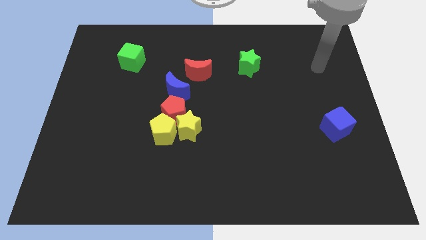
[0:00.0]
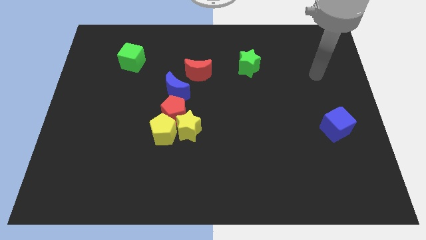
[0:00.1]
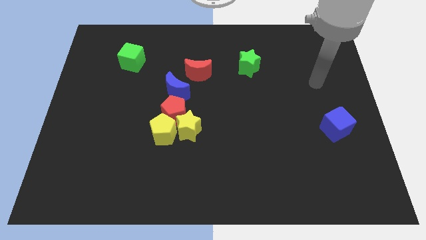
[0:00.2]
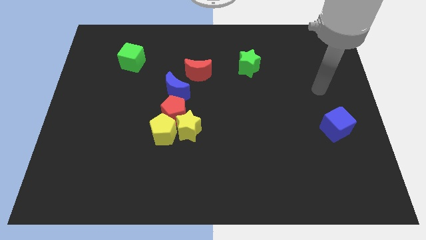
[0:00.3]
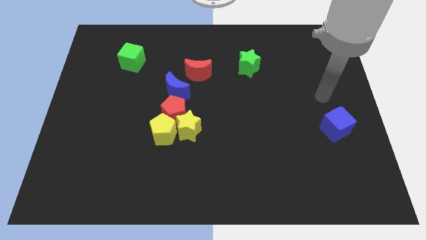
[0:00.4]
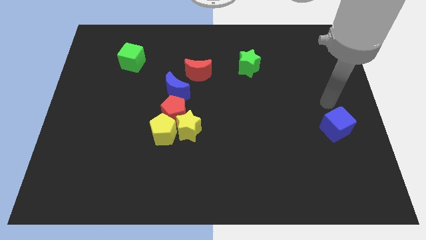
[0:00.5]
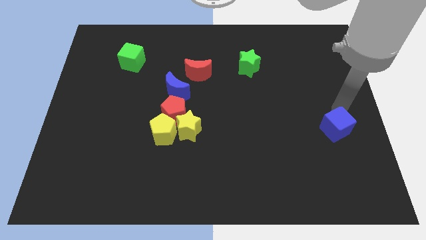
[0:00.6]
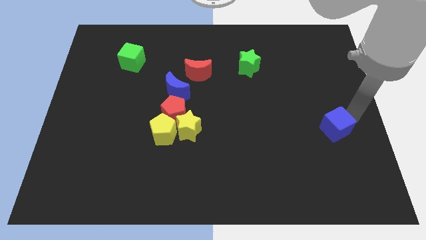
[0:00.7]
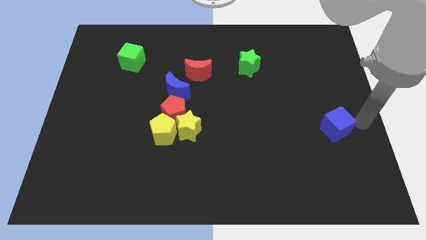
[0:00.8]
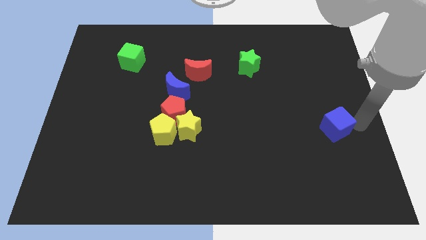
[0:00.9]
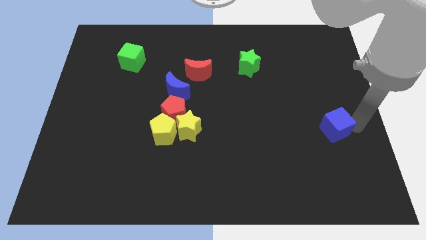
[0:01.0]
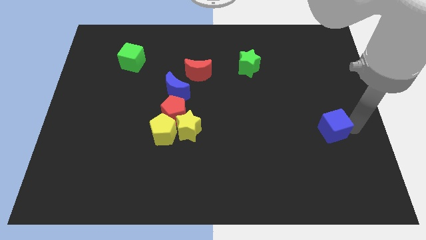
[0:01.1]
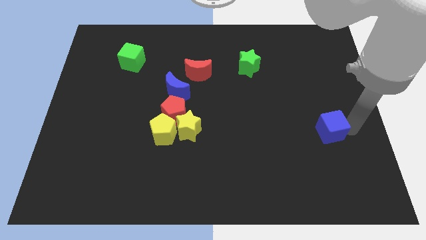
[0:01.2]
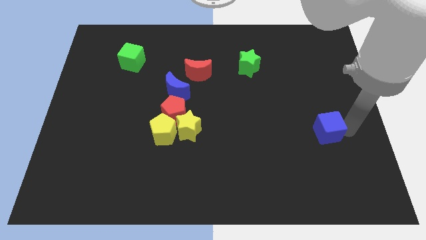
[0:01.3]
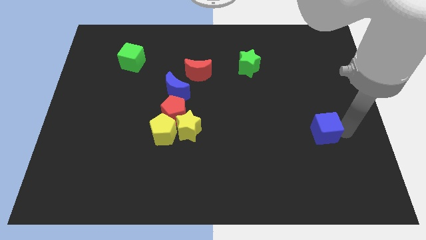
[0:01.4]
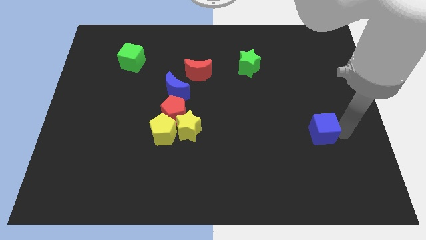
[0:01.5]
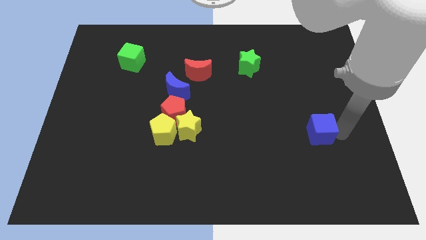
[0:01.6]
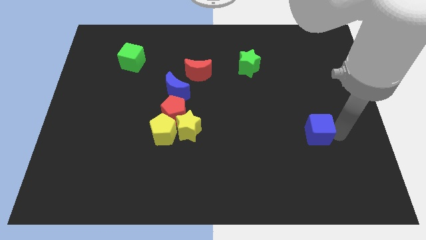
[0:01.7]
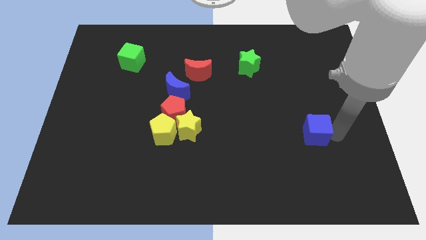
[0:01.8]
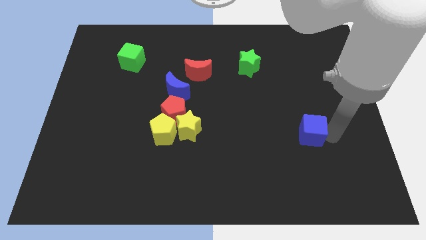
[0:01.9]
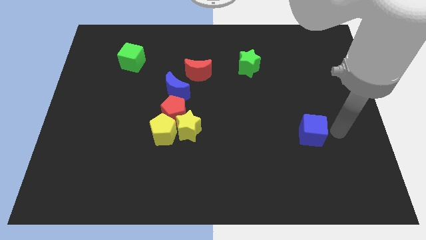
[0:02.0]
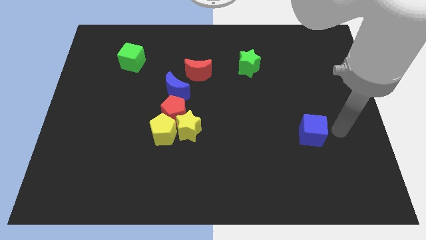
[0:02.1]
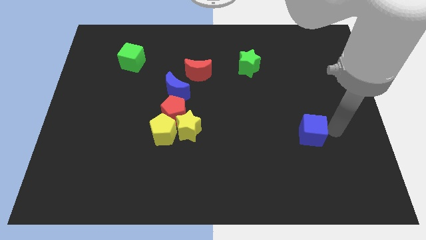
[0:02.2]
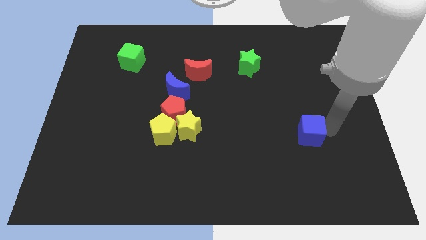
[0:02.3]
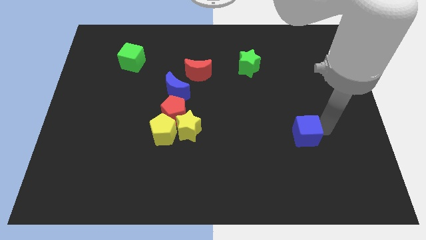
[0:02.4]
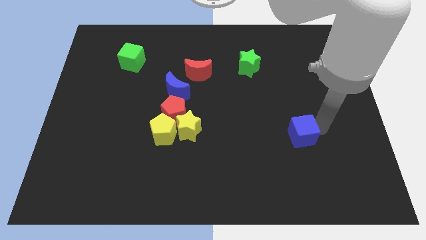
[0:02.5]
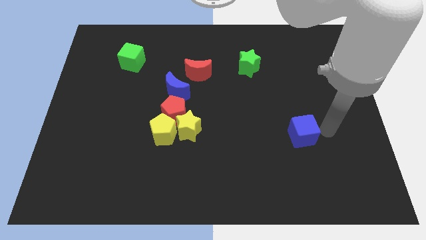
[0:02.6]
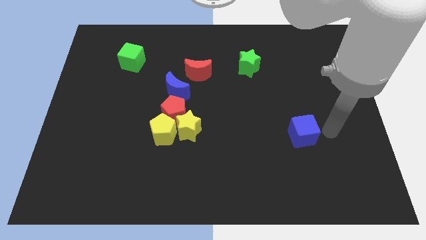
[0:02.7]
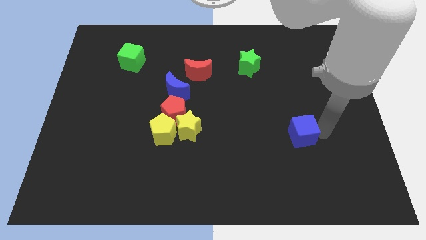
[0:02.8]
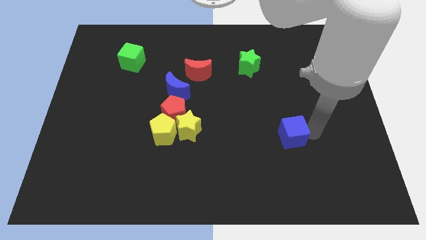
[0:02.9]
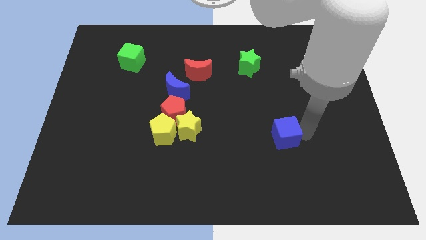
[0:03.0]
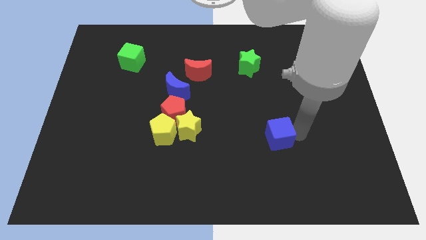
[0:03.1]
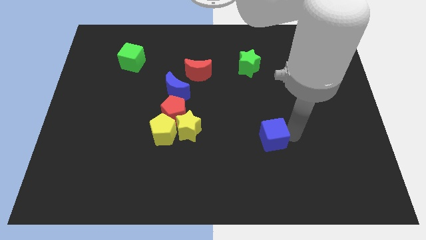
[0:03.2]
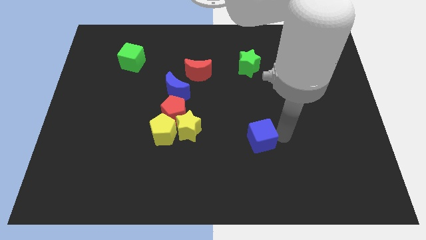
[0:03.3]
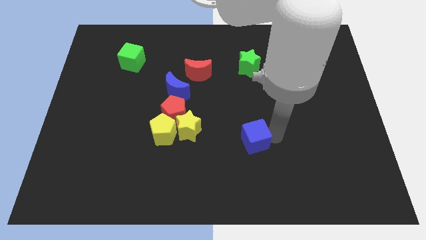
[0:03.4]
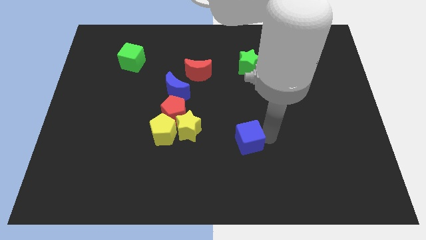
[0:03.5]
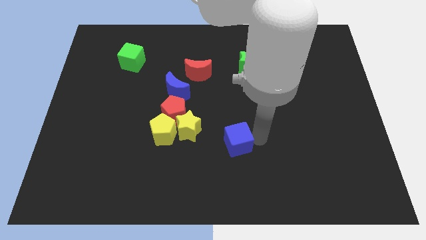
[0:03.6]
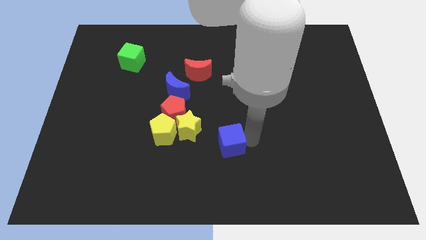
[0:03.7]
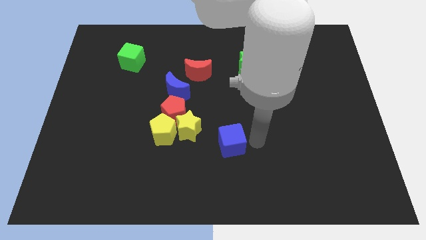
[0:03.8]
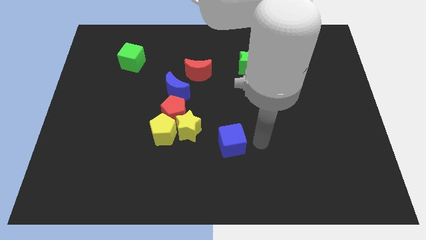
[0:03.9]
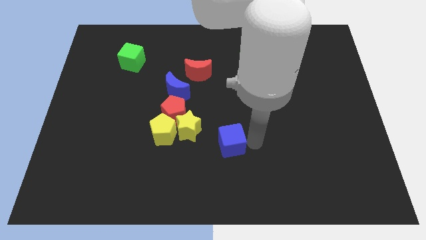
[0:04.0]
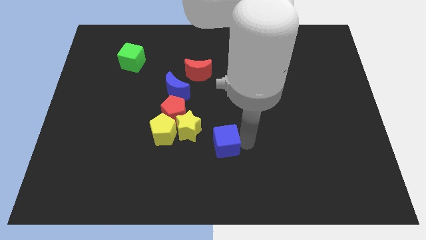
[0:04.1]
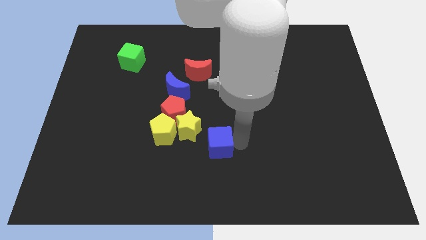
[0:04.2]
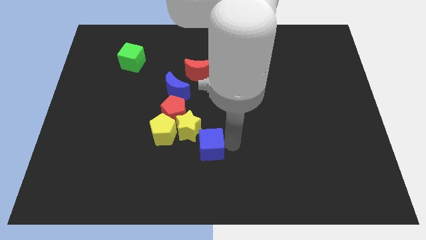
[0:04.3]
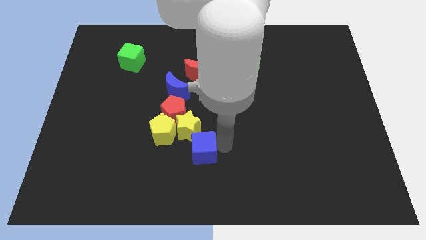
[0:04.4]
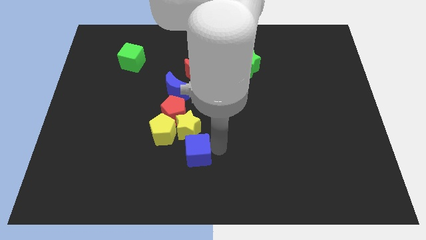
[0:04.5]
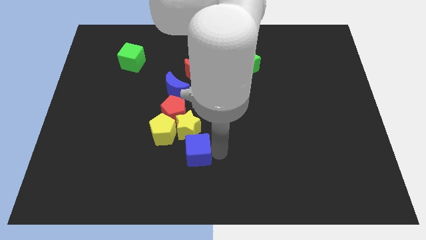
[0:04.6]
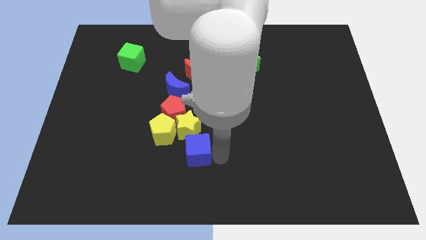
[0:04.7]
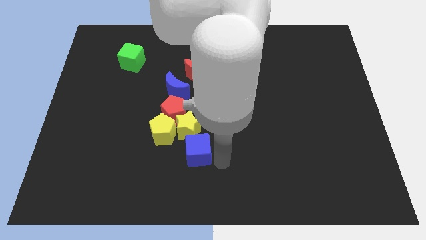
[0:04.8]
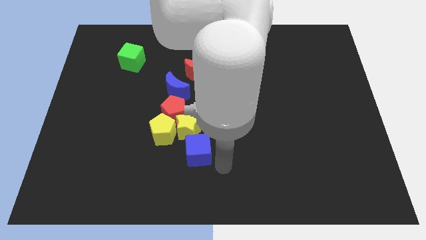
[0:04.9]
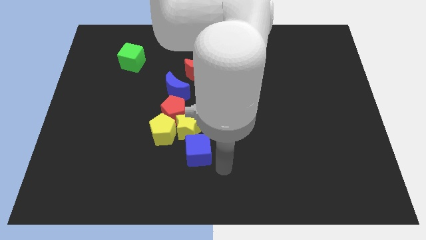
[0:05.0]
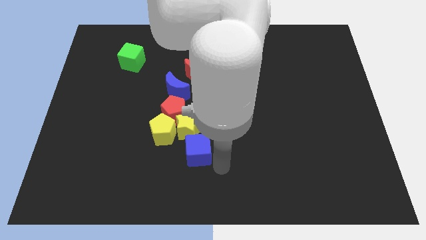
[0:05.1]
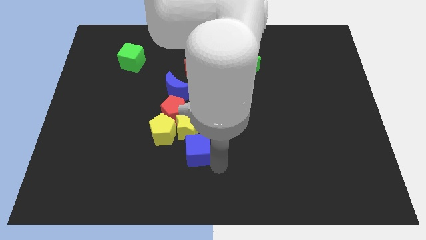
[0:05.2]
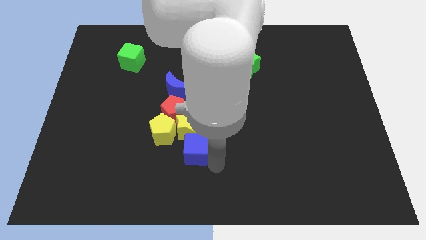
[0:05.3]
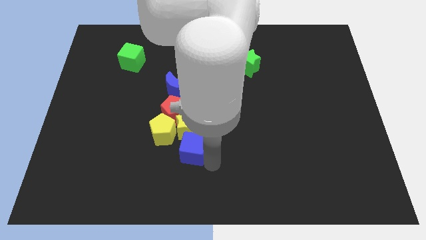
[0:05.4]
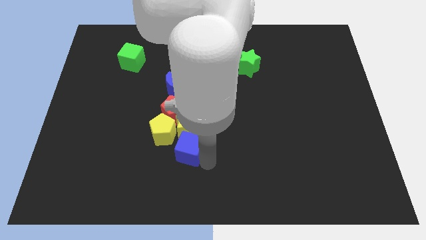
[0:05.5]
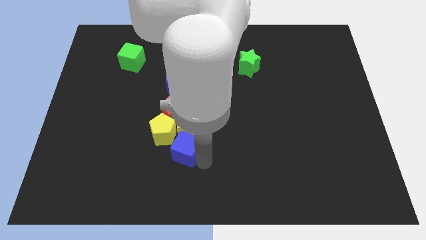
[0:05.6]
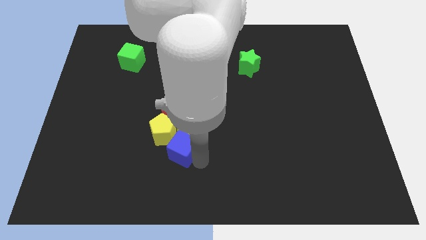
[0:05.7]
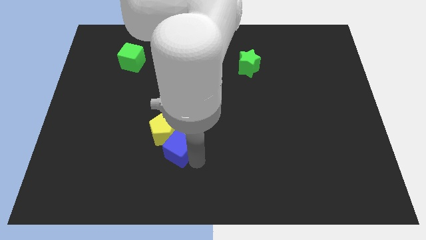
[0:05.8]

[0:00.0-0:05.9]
push the blue cube close to the yellow pentagon

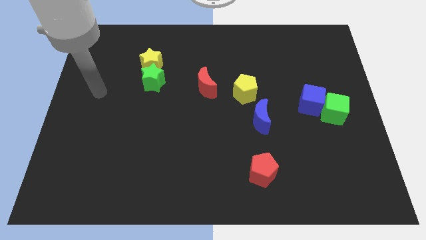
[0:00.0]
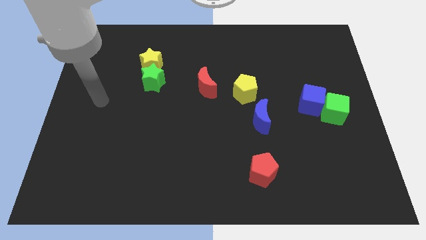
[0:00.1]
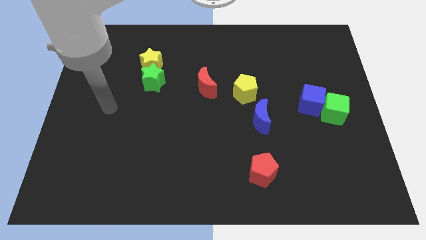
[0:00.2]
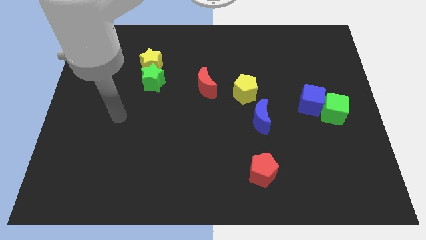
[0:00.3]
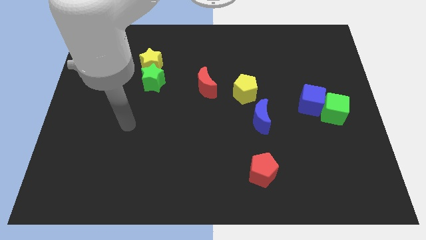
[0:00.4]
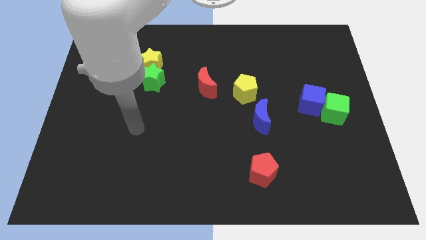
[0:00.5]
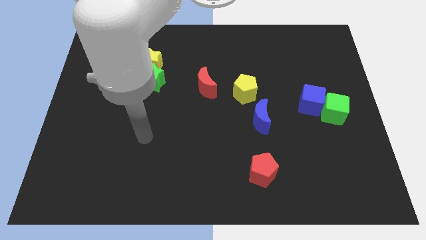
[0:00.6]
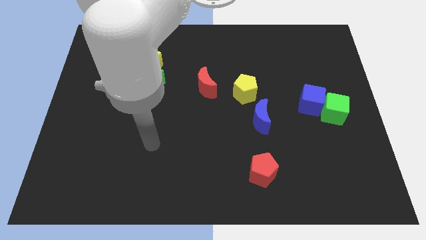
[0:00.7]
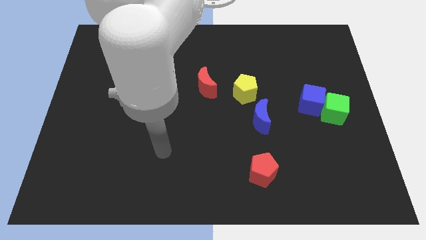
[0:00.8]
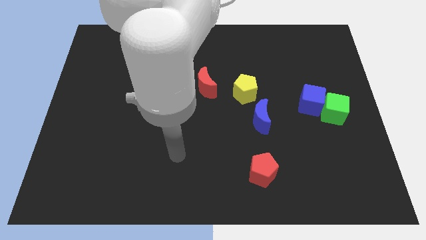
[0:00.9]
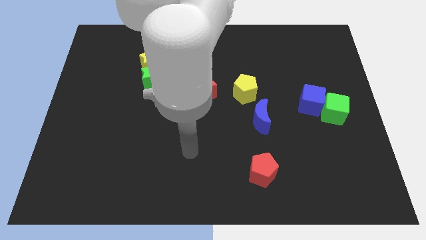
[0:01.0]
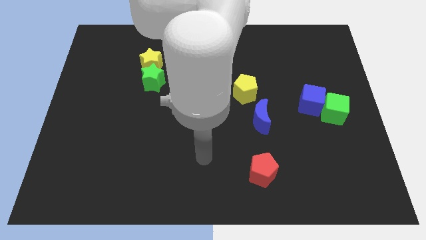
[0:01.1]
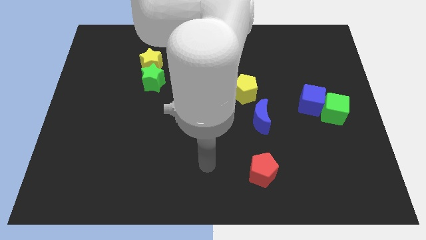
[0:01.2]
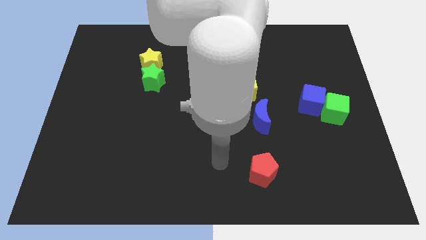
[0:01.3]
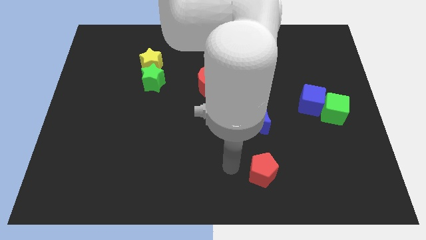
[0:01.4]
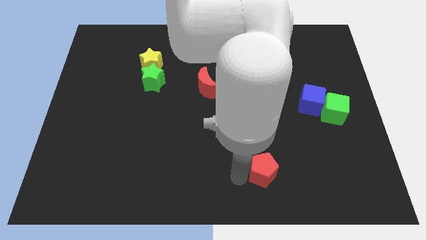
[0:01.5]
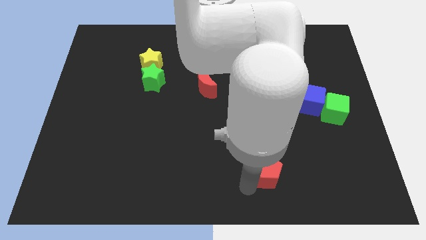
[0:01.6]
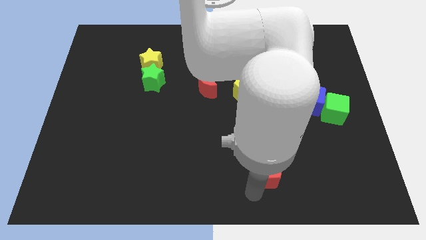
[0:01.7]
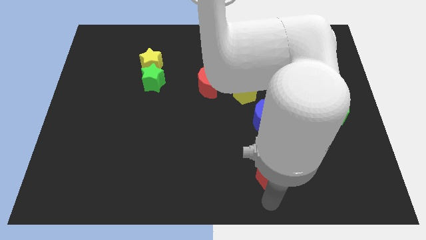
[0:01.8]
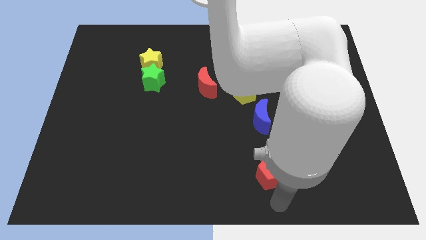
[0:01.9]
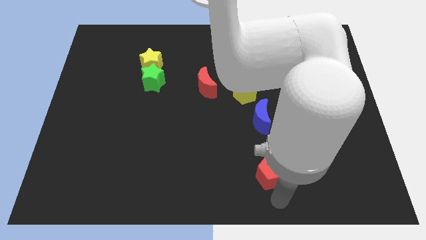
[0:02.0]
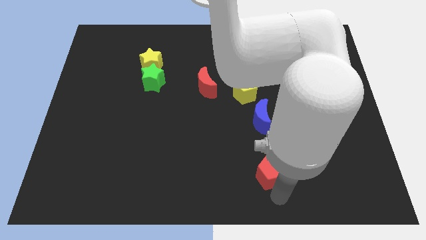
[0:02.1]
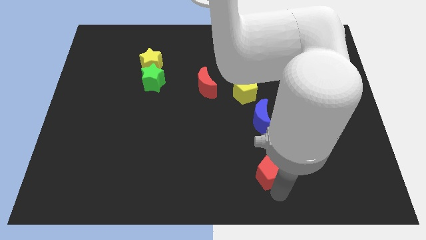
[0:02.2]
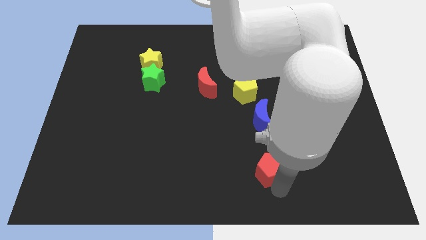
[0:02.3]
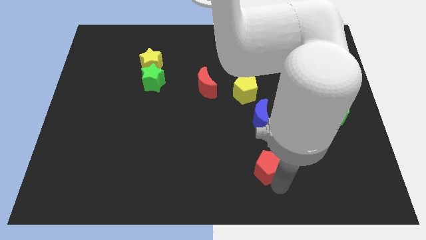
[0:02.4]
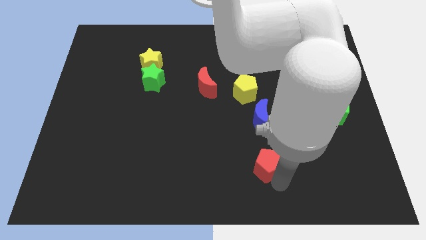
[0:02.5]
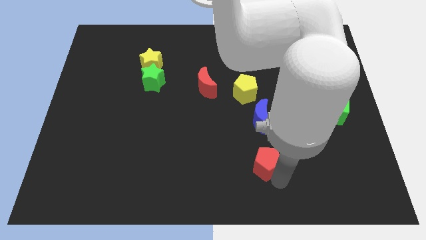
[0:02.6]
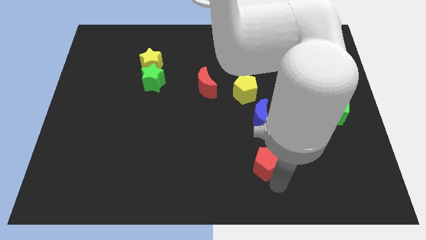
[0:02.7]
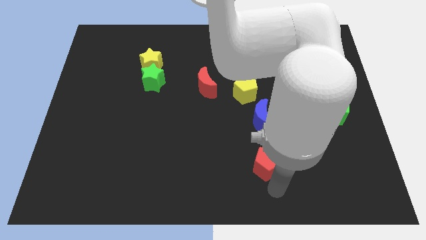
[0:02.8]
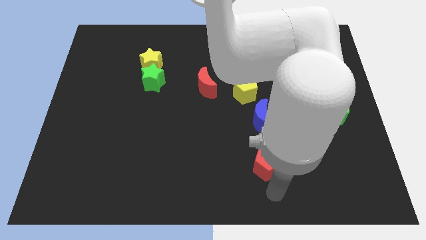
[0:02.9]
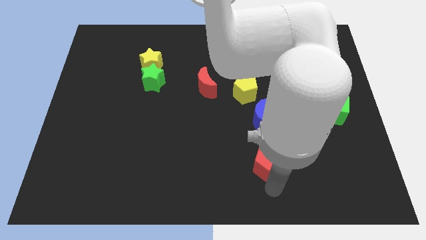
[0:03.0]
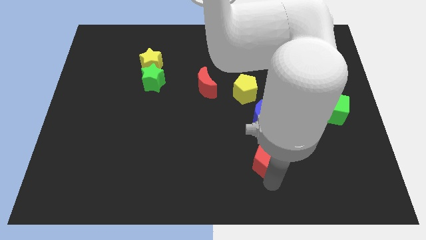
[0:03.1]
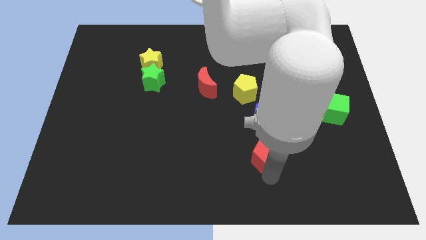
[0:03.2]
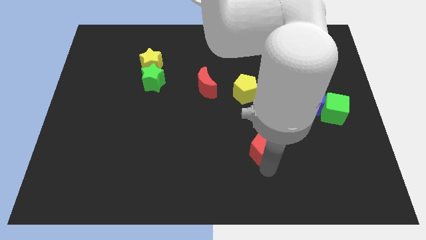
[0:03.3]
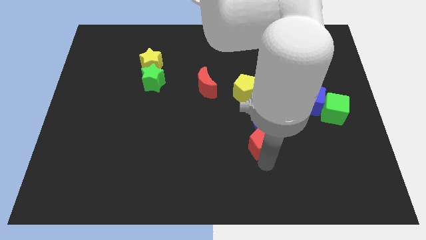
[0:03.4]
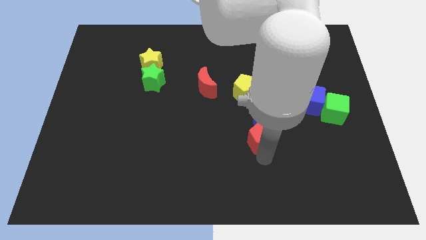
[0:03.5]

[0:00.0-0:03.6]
slide the red pentagon to the blue moon
